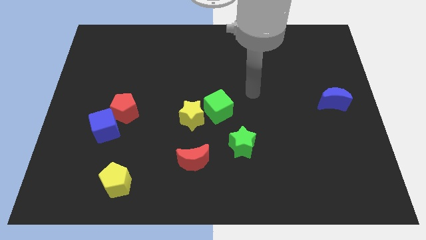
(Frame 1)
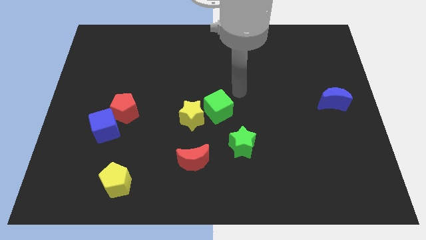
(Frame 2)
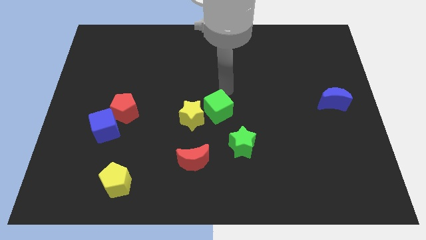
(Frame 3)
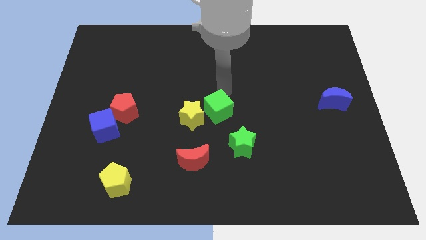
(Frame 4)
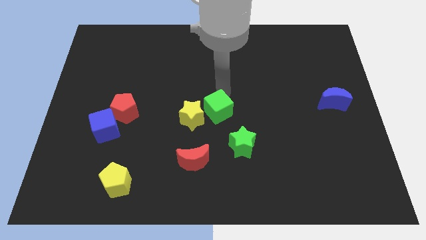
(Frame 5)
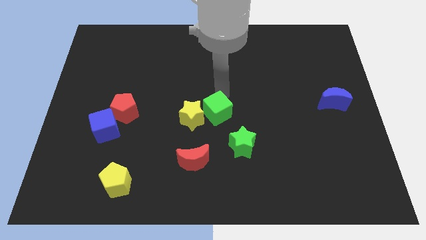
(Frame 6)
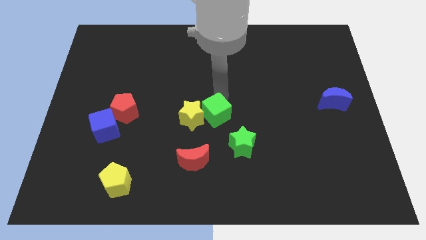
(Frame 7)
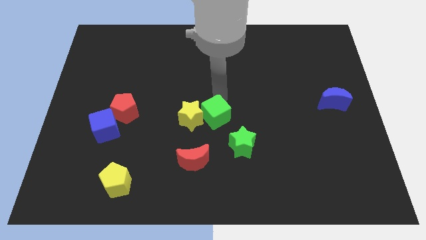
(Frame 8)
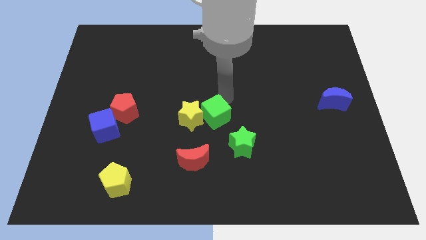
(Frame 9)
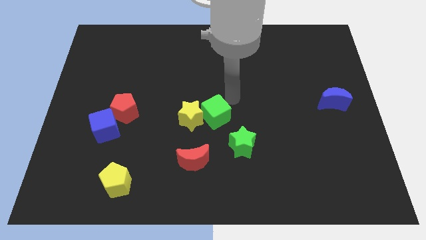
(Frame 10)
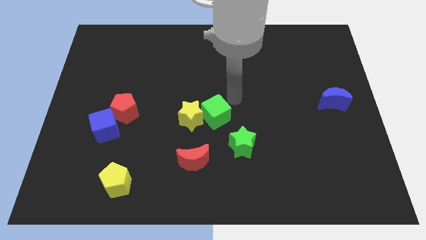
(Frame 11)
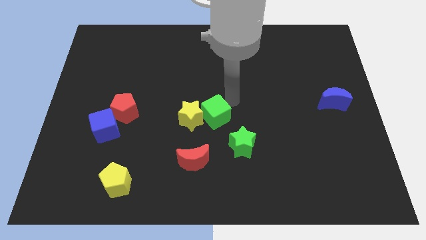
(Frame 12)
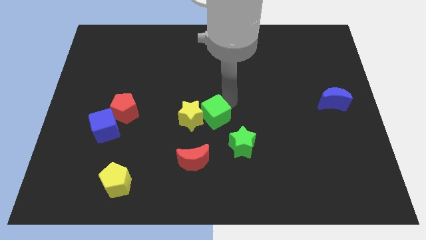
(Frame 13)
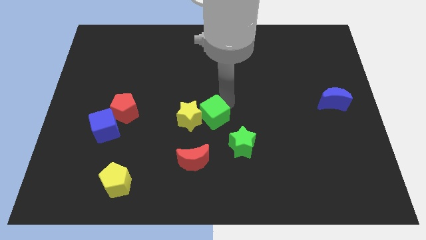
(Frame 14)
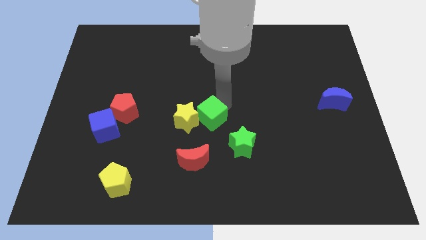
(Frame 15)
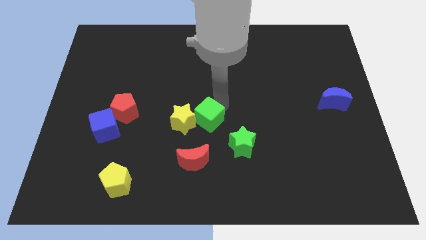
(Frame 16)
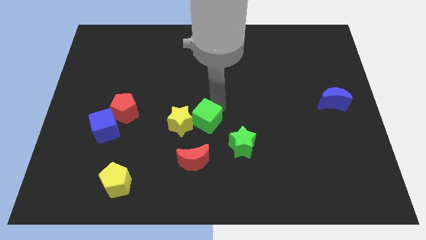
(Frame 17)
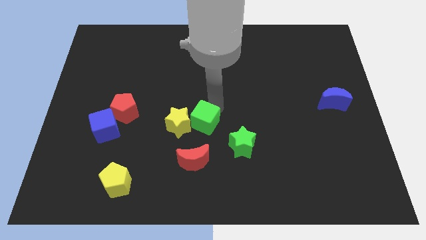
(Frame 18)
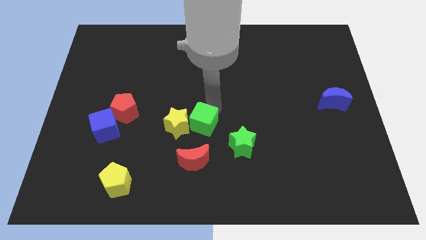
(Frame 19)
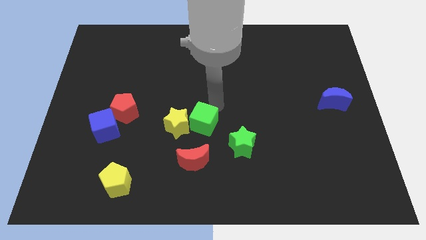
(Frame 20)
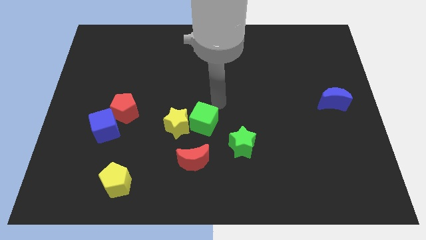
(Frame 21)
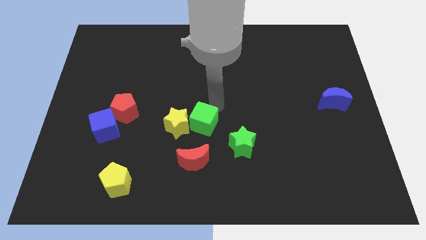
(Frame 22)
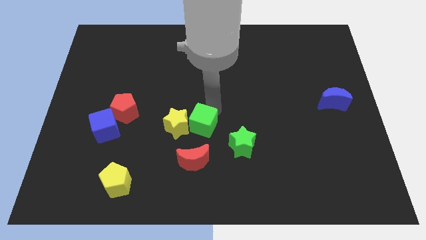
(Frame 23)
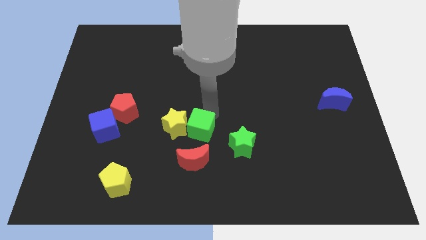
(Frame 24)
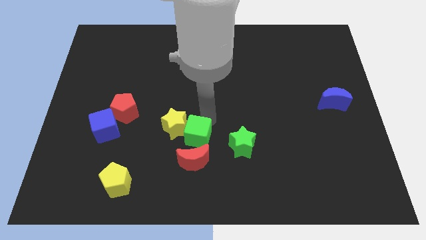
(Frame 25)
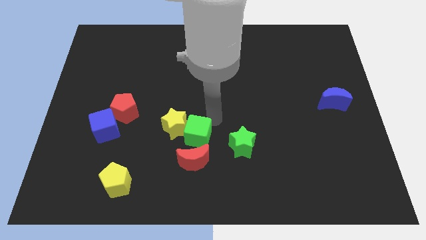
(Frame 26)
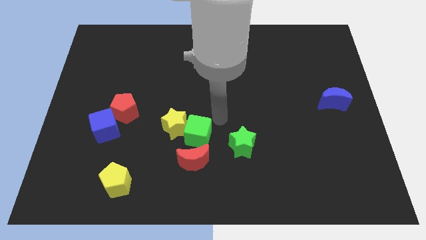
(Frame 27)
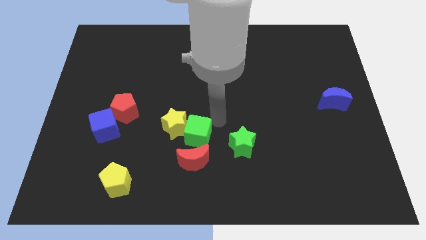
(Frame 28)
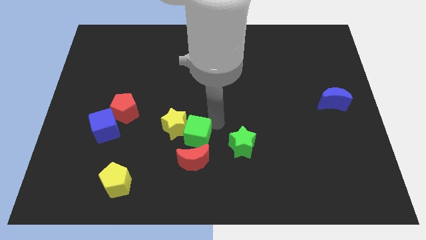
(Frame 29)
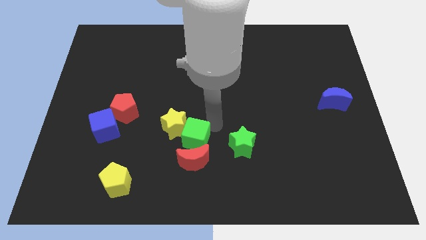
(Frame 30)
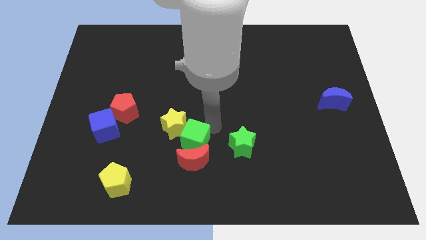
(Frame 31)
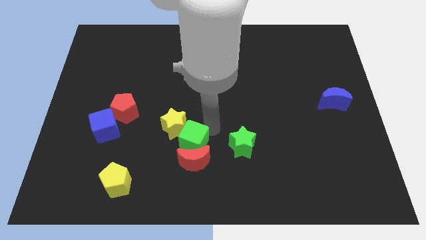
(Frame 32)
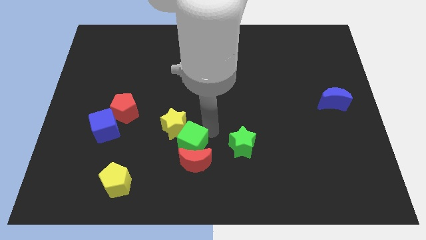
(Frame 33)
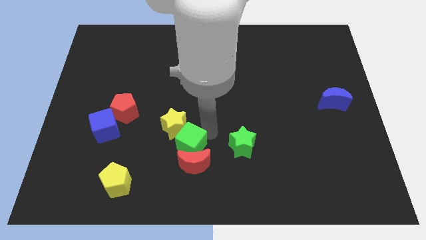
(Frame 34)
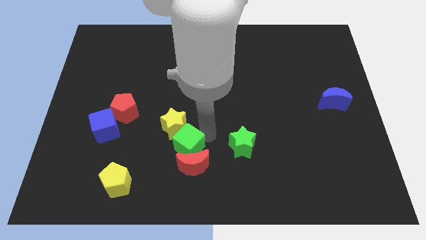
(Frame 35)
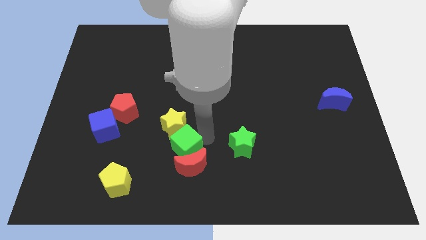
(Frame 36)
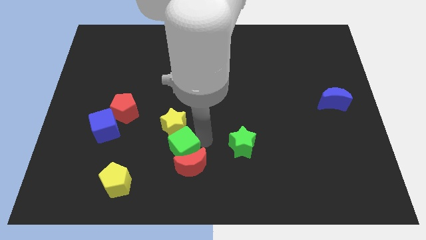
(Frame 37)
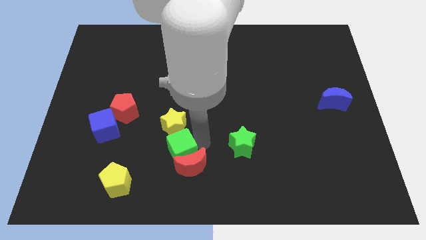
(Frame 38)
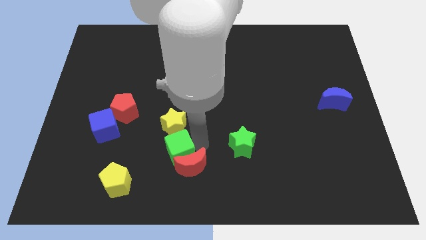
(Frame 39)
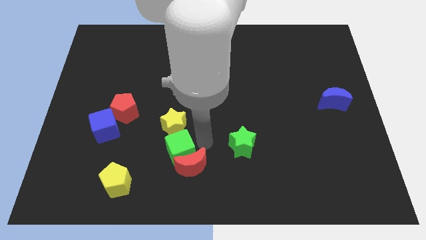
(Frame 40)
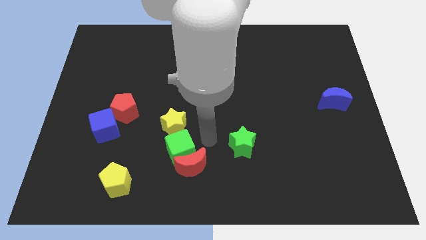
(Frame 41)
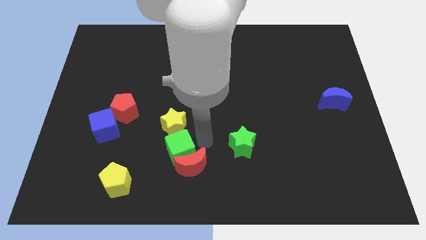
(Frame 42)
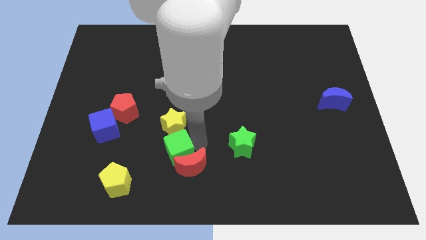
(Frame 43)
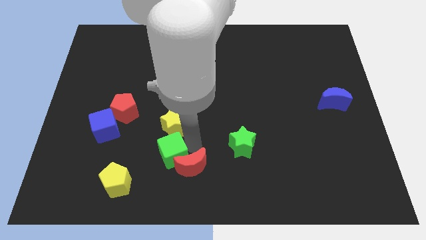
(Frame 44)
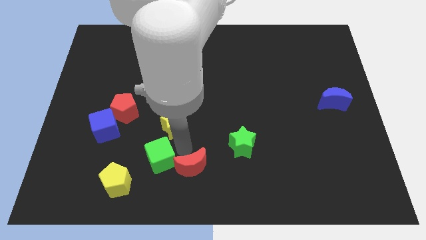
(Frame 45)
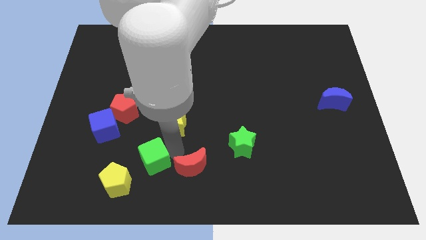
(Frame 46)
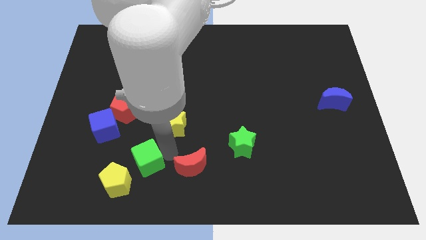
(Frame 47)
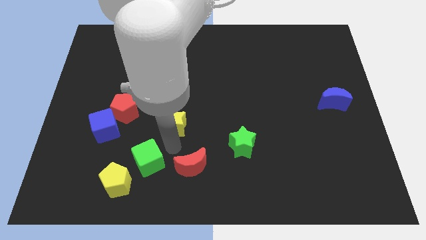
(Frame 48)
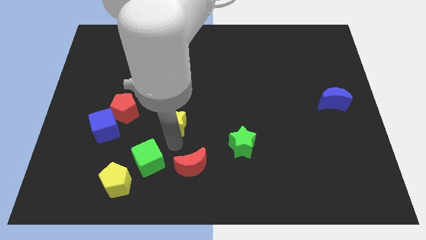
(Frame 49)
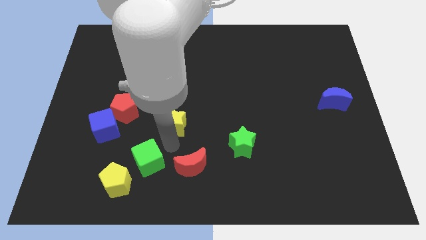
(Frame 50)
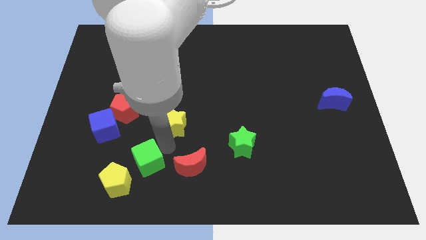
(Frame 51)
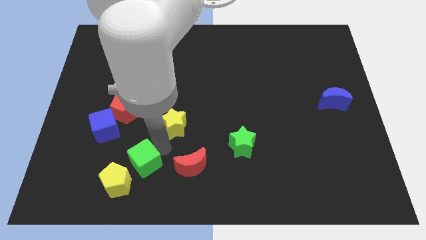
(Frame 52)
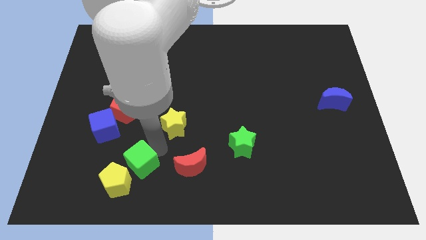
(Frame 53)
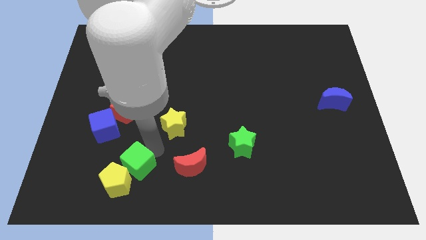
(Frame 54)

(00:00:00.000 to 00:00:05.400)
move the green cube next to the yellow pentagon

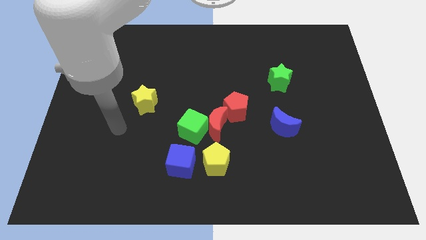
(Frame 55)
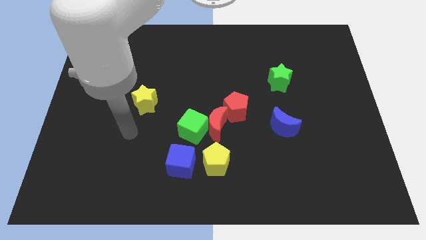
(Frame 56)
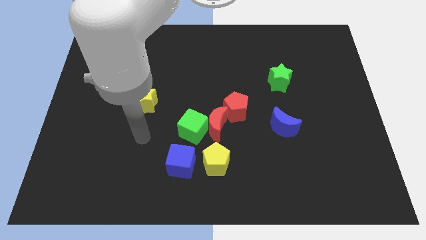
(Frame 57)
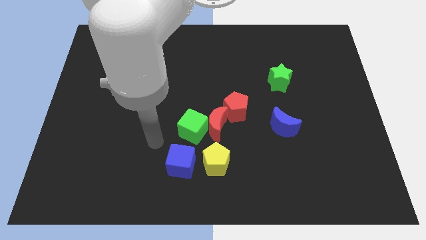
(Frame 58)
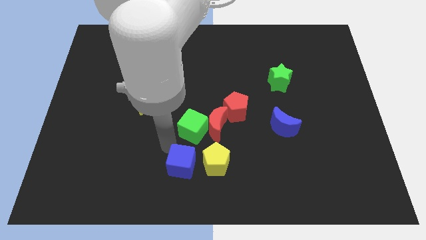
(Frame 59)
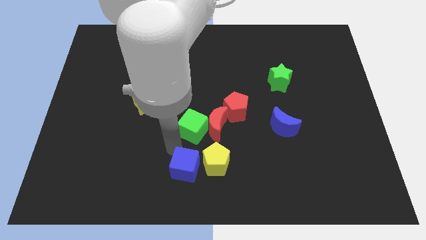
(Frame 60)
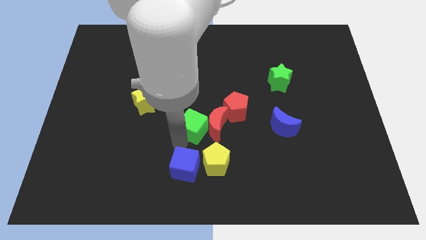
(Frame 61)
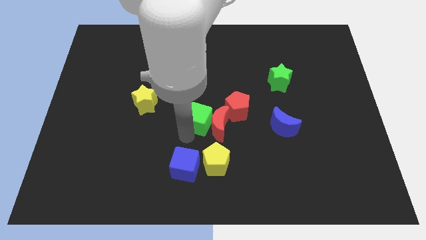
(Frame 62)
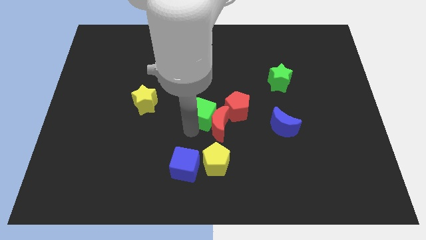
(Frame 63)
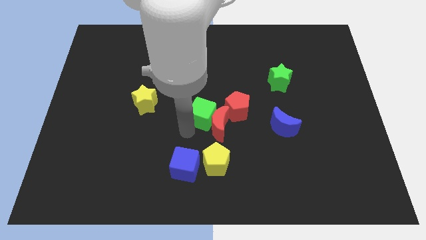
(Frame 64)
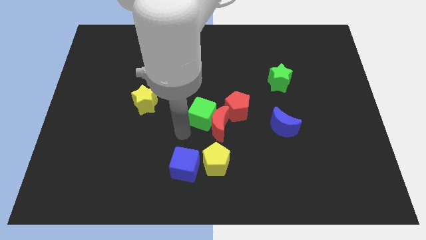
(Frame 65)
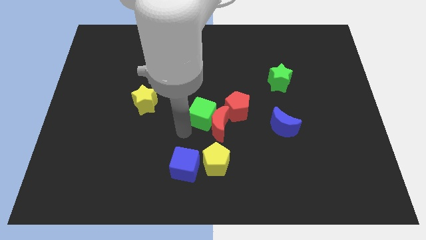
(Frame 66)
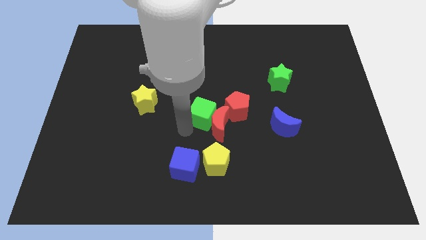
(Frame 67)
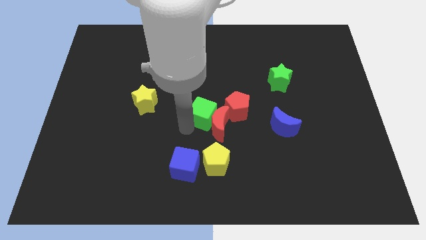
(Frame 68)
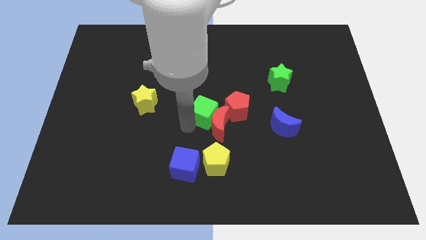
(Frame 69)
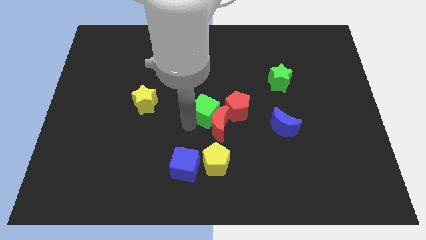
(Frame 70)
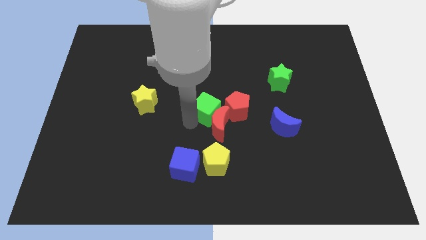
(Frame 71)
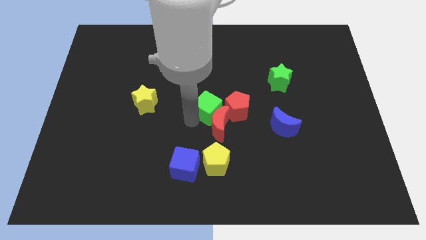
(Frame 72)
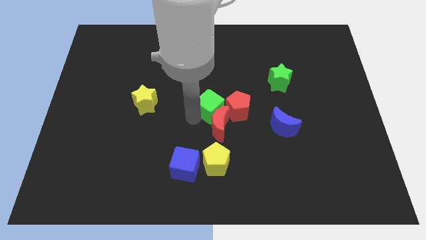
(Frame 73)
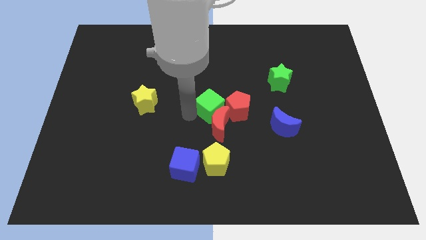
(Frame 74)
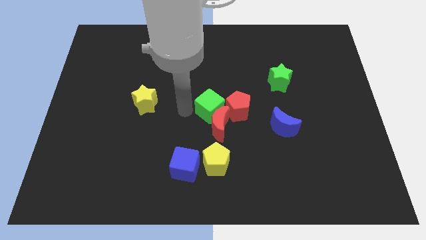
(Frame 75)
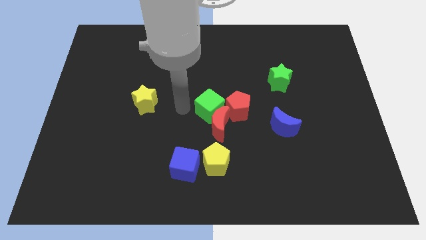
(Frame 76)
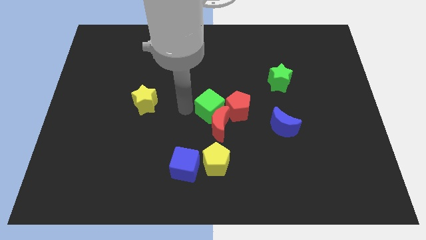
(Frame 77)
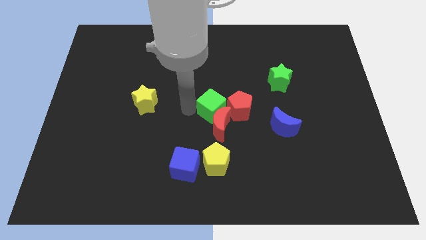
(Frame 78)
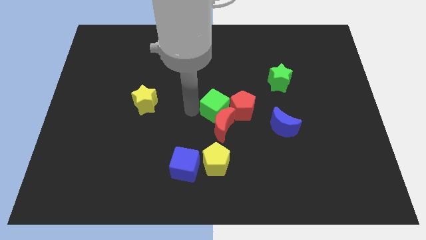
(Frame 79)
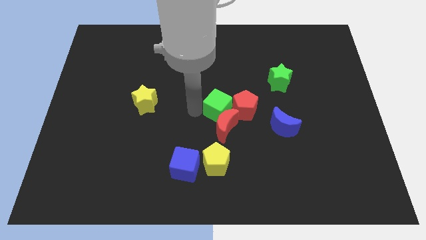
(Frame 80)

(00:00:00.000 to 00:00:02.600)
push the green cube to the red pentagon
